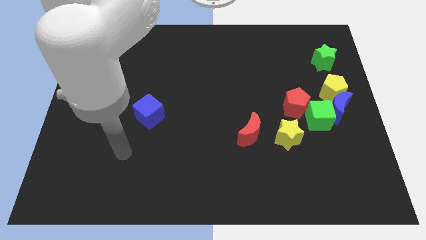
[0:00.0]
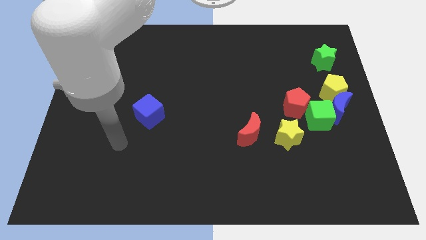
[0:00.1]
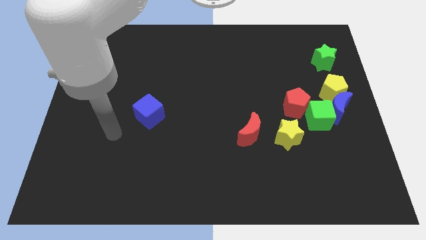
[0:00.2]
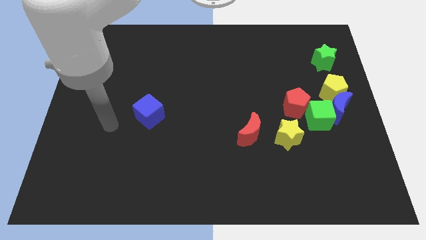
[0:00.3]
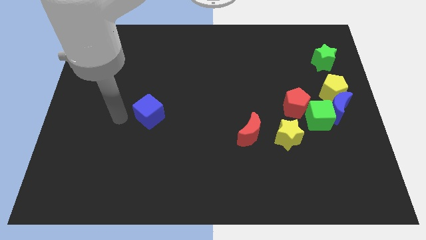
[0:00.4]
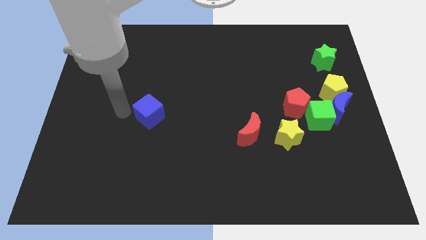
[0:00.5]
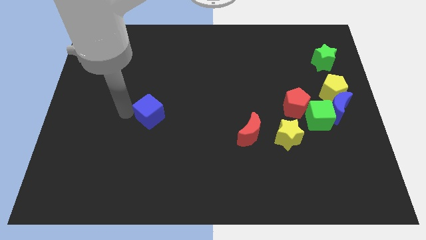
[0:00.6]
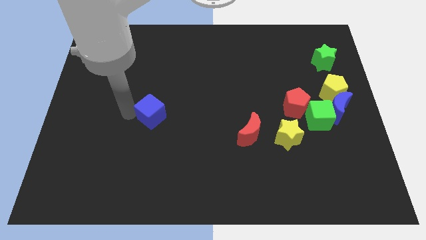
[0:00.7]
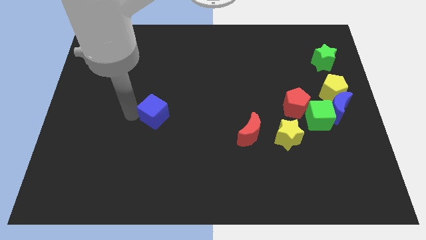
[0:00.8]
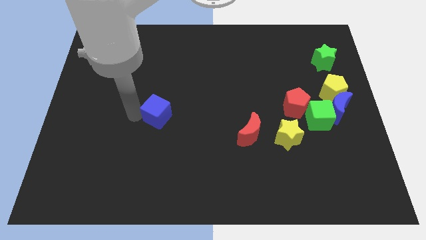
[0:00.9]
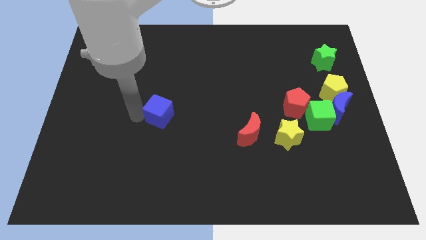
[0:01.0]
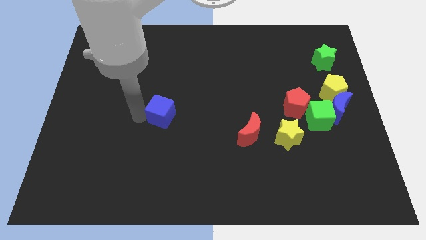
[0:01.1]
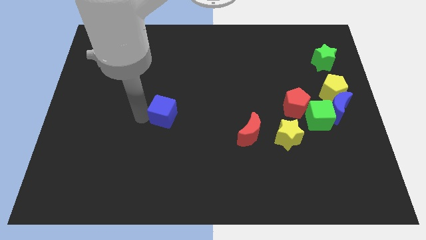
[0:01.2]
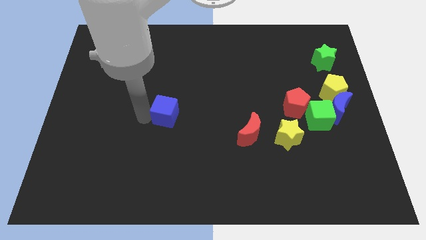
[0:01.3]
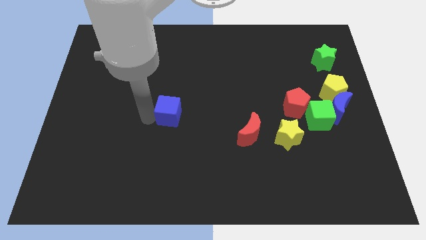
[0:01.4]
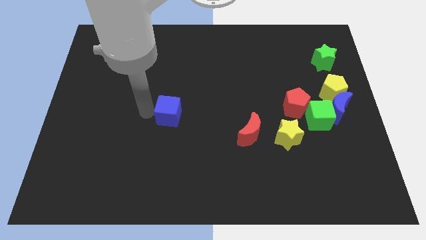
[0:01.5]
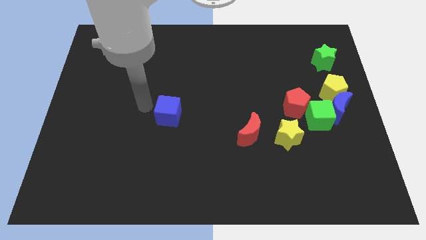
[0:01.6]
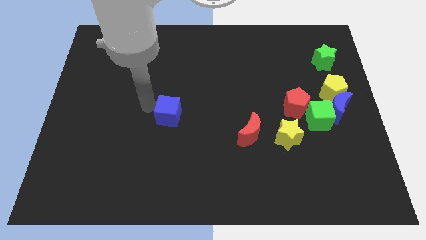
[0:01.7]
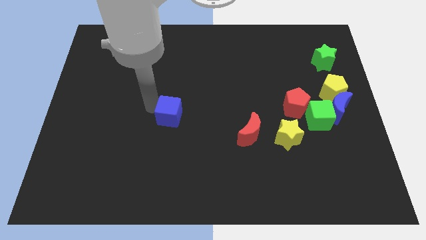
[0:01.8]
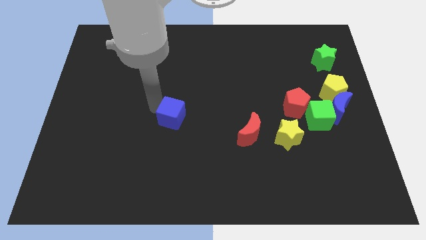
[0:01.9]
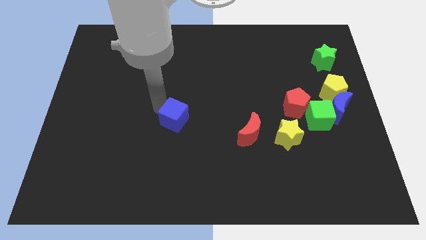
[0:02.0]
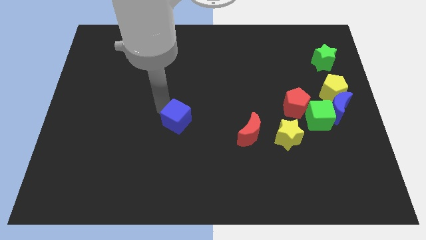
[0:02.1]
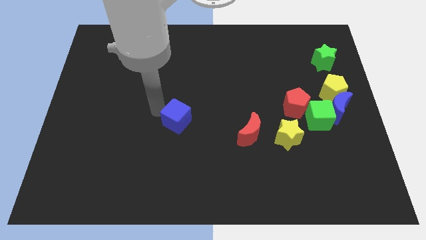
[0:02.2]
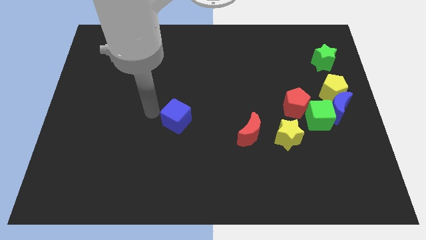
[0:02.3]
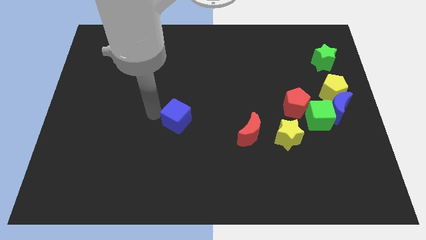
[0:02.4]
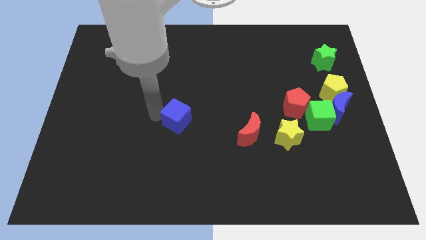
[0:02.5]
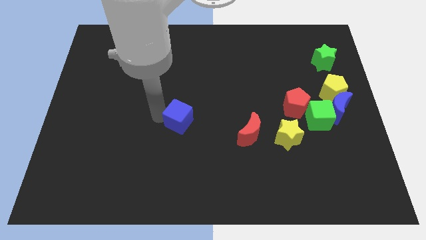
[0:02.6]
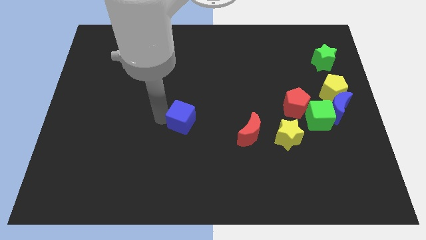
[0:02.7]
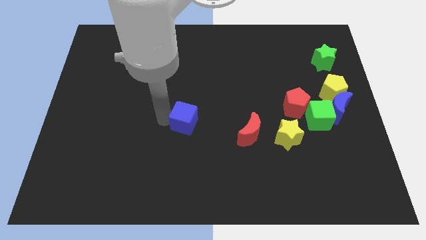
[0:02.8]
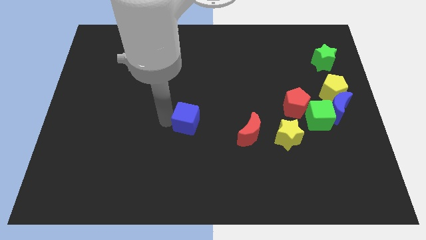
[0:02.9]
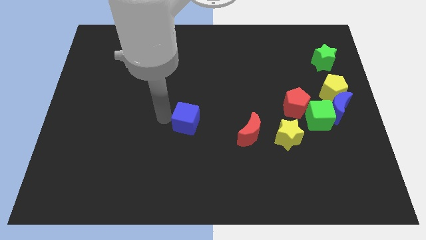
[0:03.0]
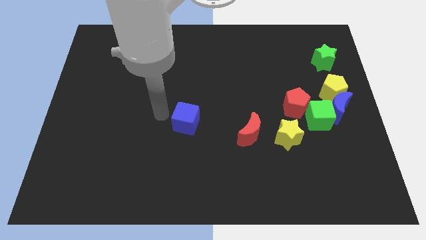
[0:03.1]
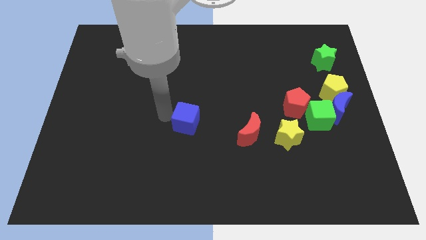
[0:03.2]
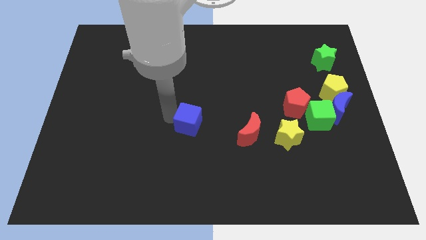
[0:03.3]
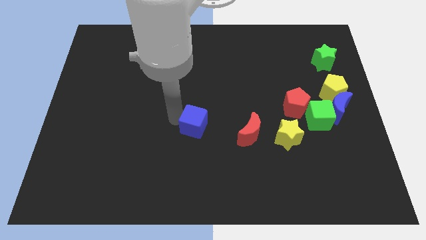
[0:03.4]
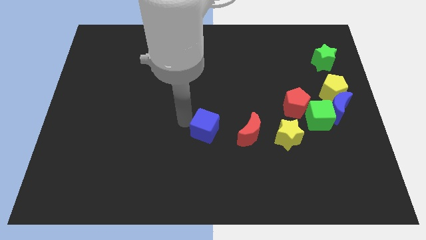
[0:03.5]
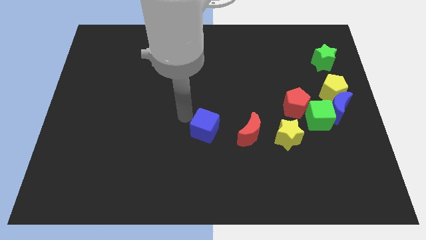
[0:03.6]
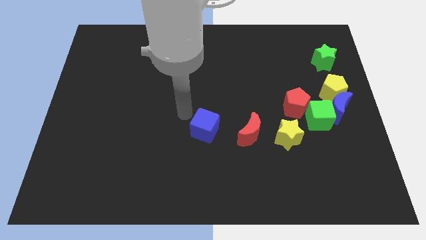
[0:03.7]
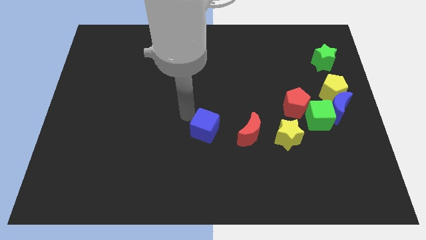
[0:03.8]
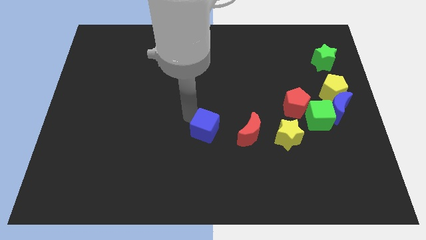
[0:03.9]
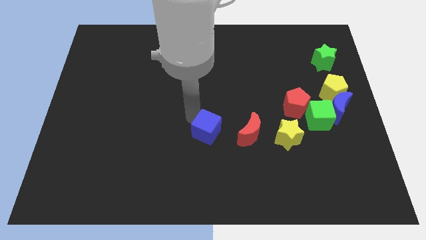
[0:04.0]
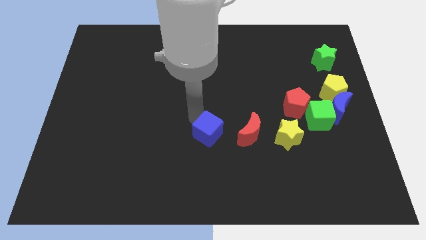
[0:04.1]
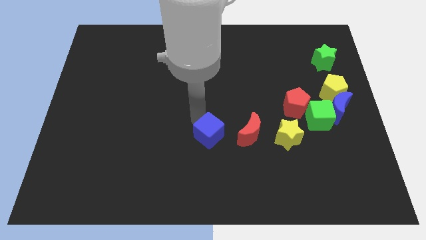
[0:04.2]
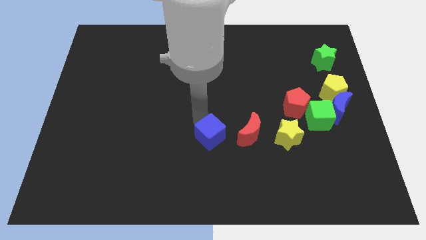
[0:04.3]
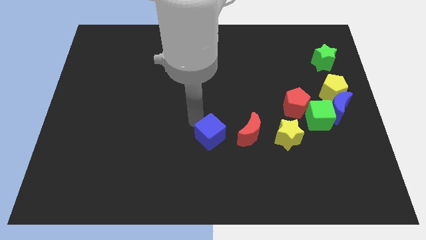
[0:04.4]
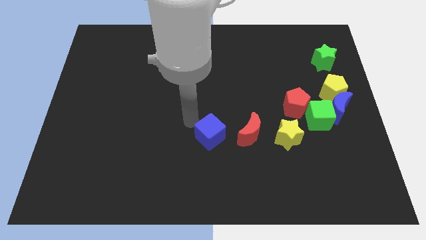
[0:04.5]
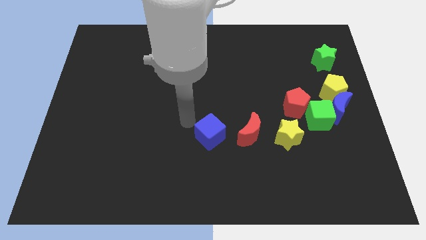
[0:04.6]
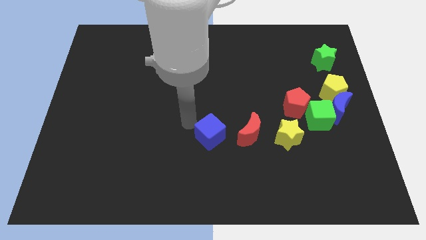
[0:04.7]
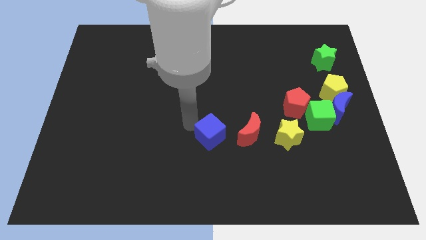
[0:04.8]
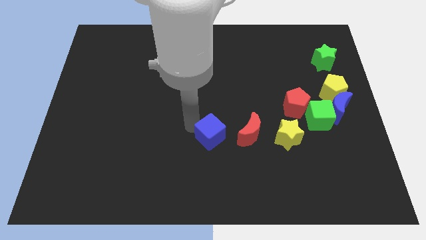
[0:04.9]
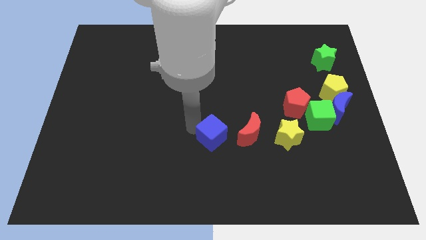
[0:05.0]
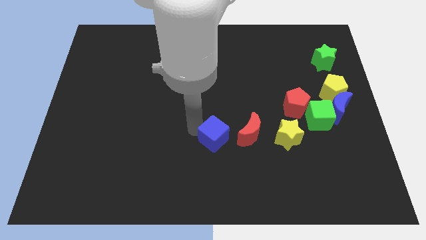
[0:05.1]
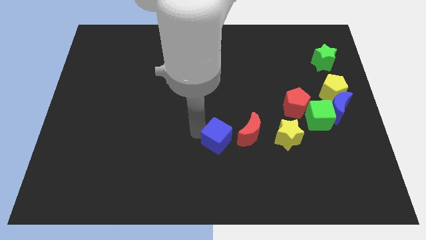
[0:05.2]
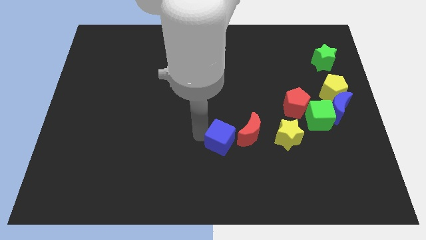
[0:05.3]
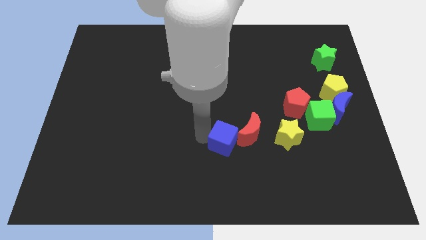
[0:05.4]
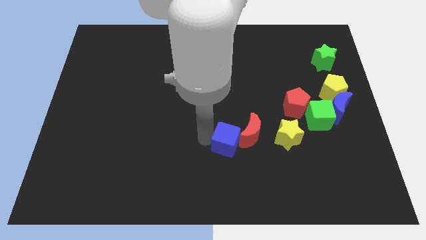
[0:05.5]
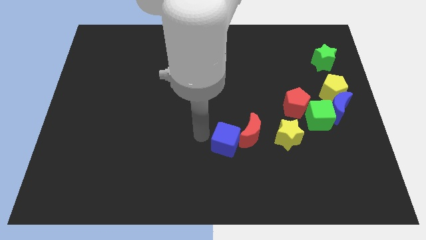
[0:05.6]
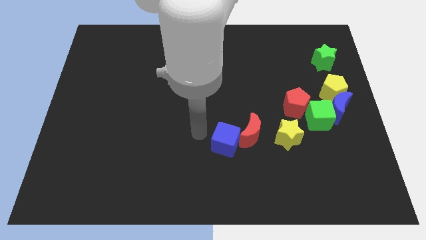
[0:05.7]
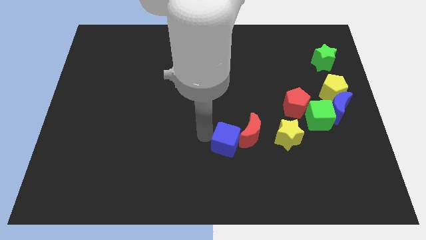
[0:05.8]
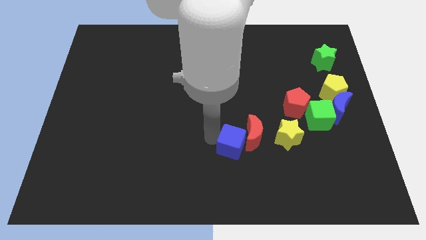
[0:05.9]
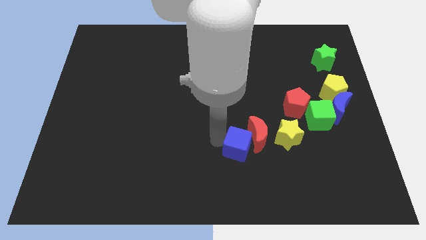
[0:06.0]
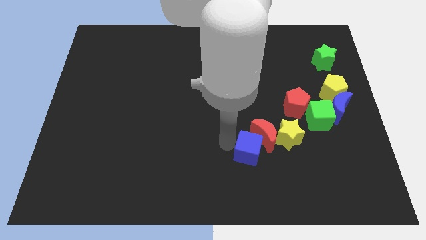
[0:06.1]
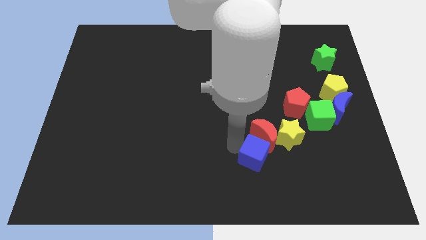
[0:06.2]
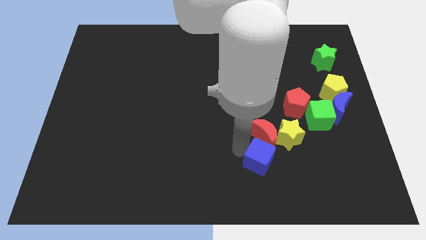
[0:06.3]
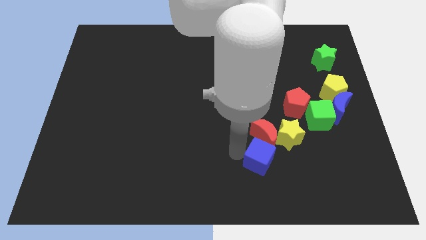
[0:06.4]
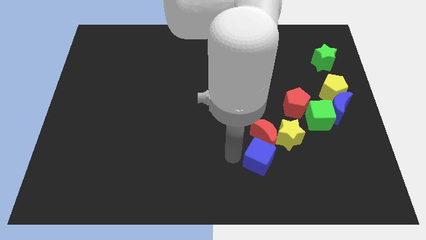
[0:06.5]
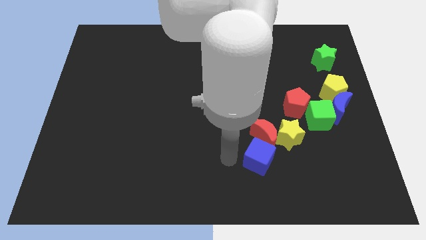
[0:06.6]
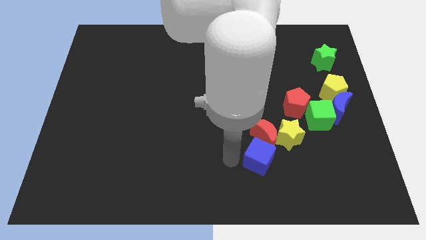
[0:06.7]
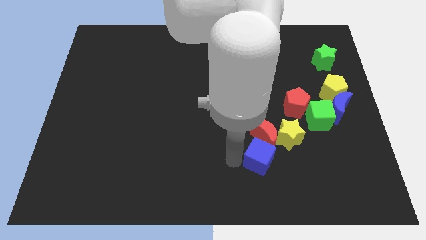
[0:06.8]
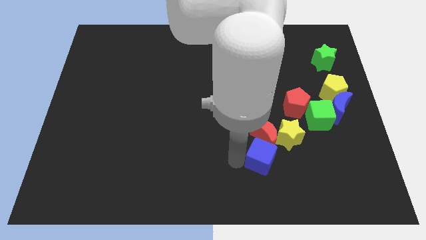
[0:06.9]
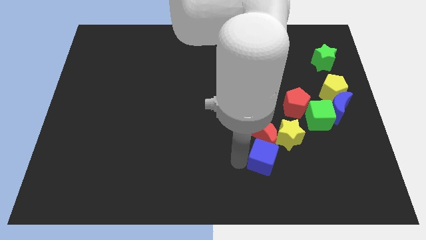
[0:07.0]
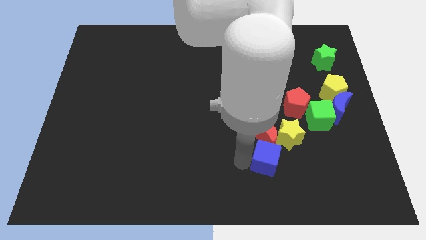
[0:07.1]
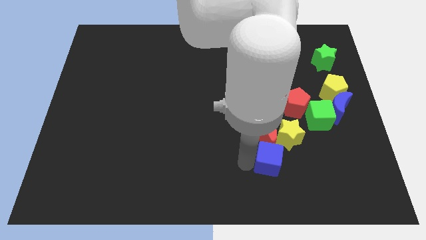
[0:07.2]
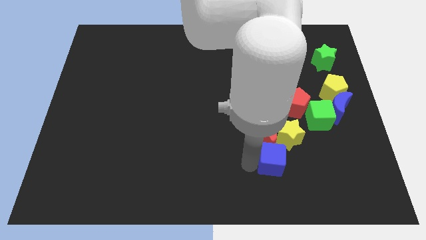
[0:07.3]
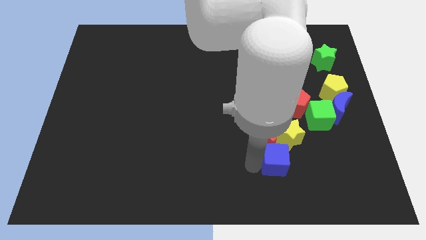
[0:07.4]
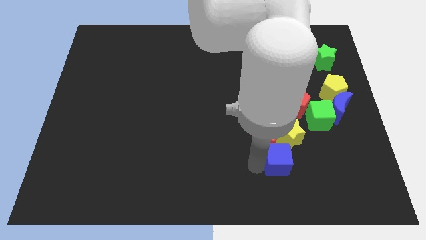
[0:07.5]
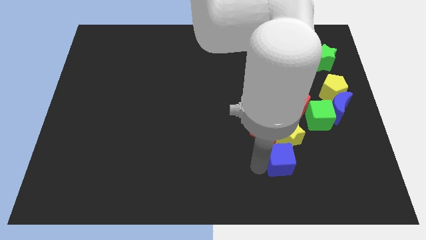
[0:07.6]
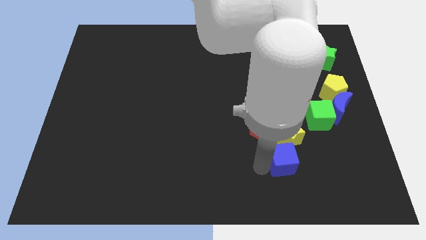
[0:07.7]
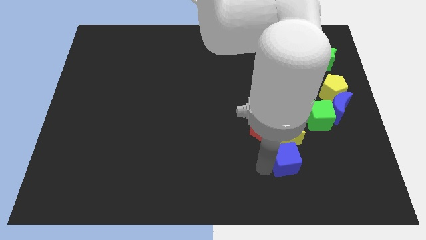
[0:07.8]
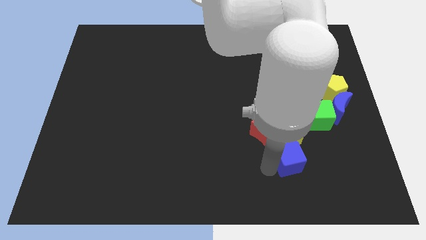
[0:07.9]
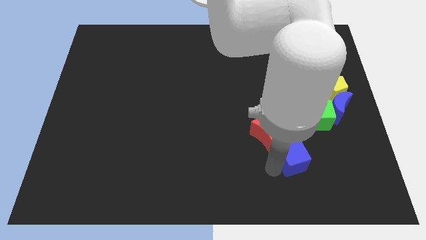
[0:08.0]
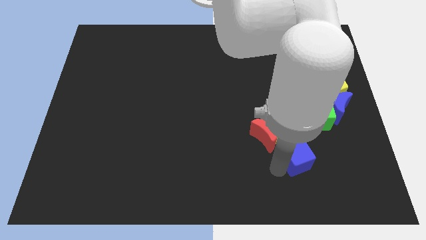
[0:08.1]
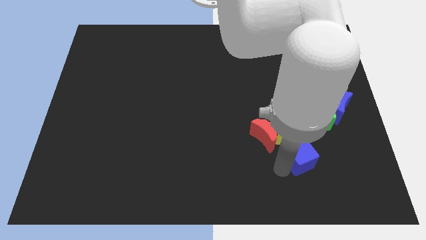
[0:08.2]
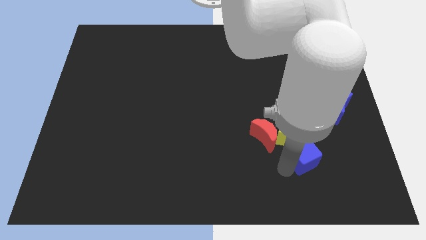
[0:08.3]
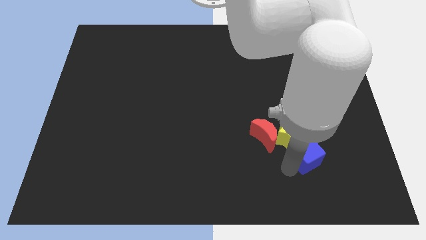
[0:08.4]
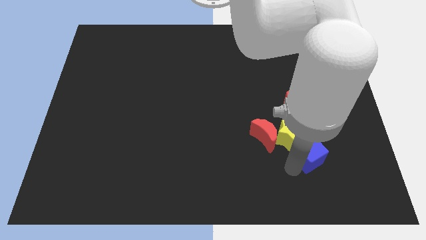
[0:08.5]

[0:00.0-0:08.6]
put the blue cube to the right side of the red moon
